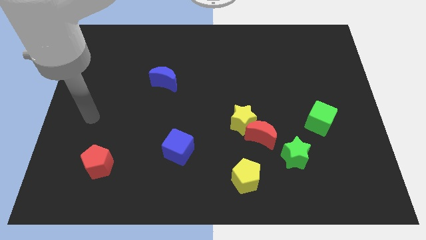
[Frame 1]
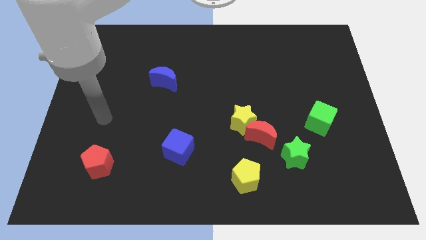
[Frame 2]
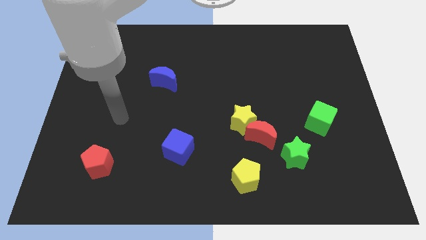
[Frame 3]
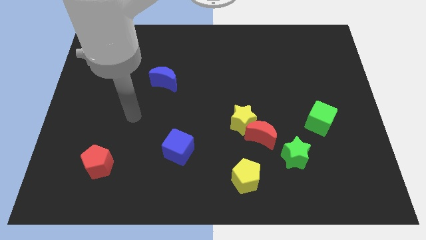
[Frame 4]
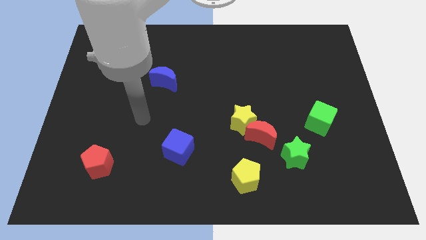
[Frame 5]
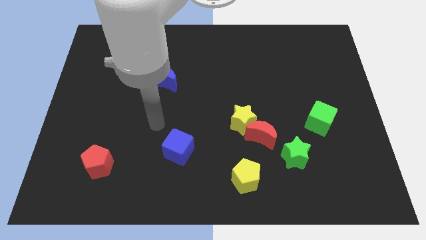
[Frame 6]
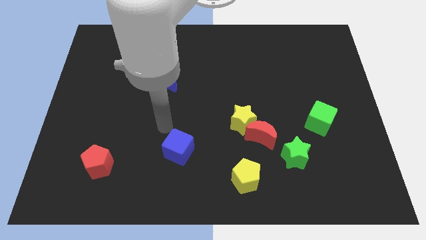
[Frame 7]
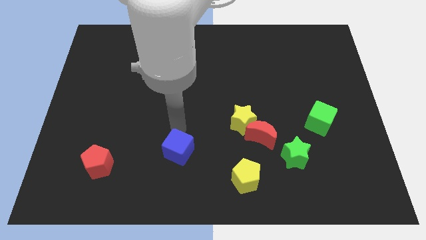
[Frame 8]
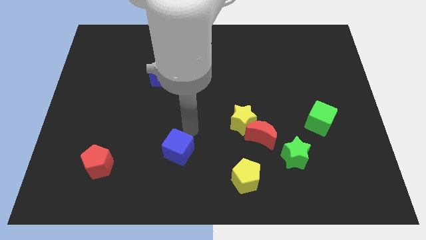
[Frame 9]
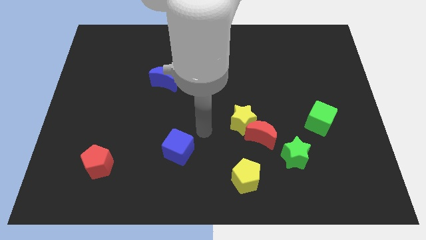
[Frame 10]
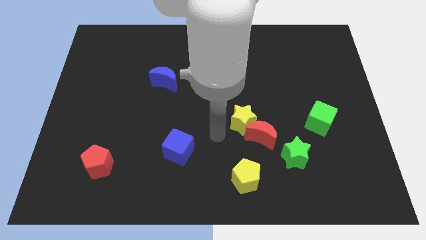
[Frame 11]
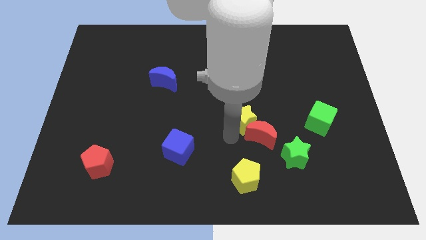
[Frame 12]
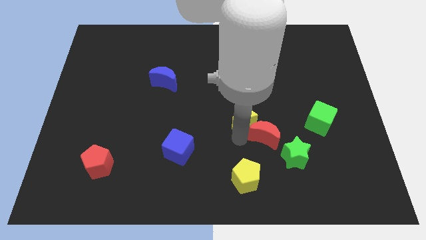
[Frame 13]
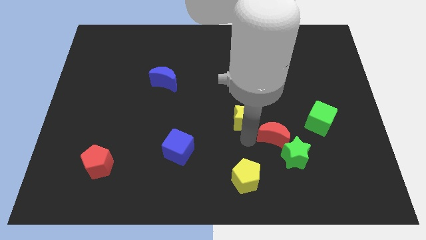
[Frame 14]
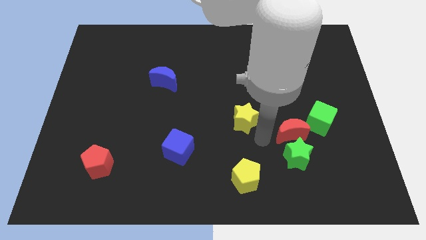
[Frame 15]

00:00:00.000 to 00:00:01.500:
pull the yellow star apart from the red moon

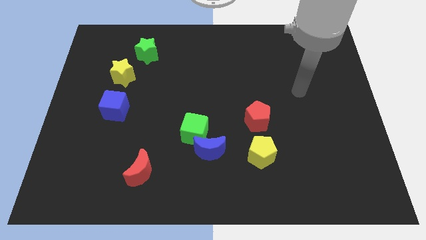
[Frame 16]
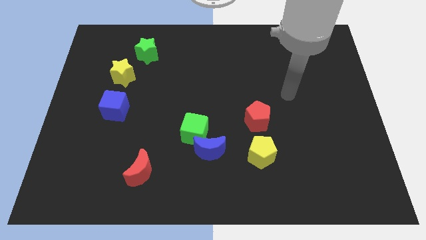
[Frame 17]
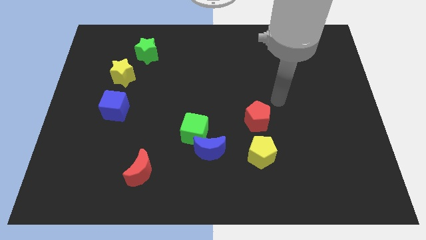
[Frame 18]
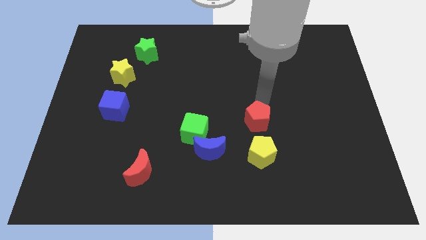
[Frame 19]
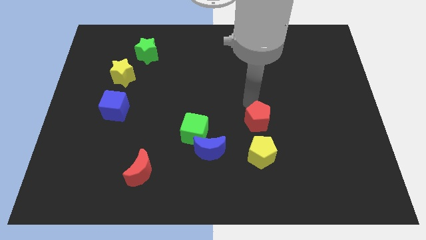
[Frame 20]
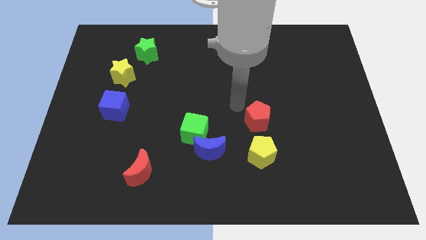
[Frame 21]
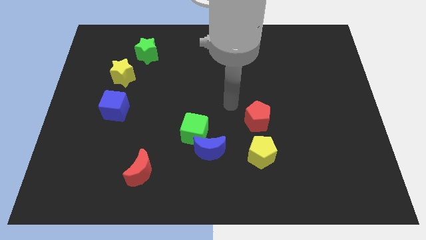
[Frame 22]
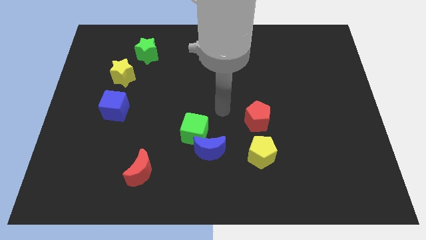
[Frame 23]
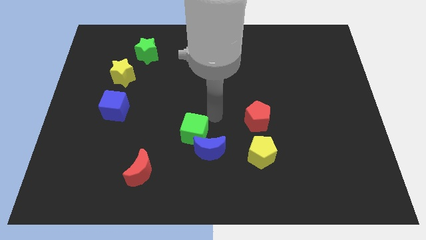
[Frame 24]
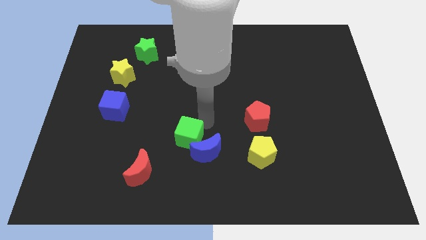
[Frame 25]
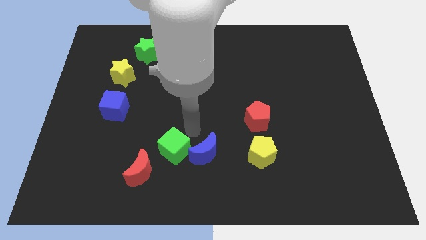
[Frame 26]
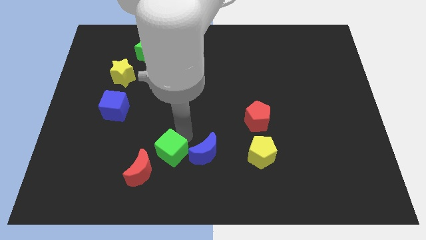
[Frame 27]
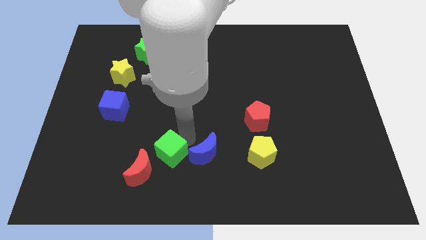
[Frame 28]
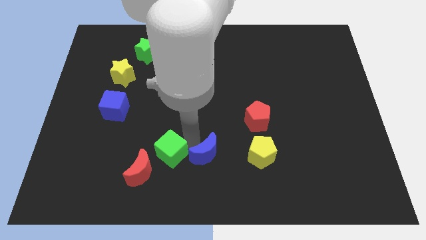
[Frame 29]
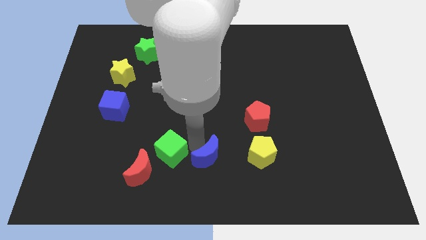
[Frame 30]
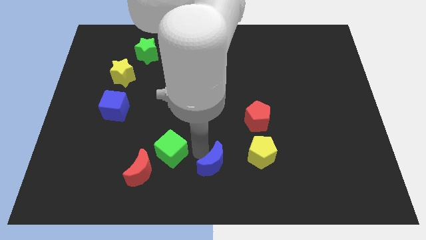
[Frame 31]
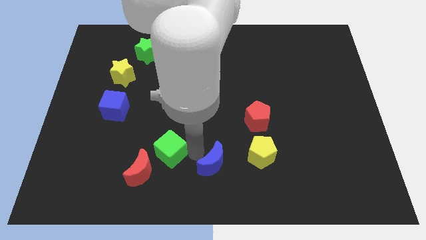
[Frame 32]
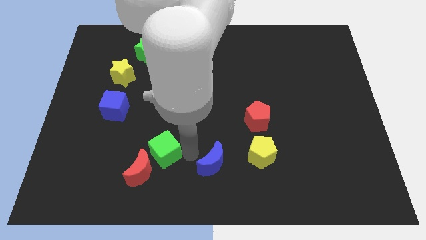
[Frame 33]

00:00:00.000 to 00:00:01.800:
pull the blue moon apart from the green cube

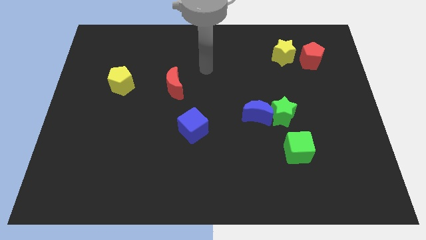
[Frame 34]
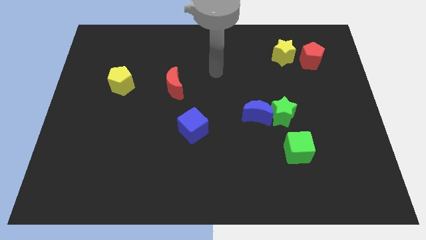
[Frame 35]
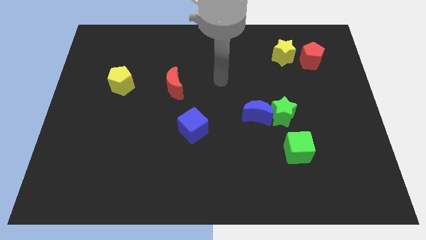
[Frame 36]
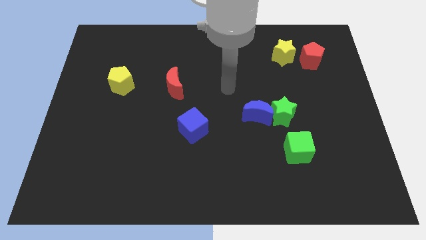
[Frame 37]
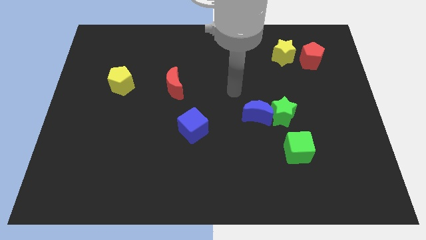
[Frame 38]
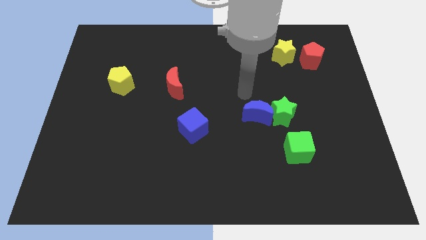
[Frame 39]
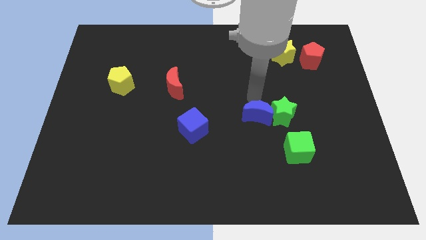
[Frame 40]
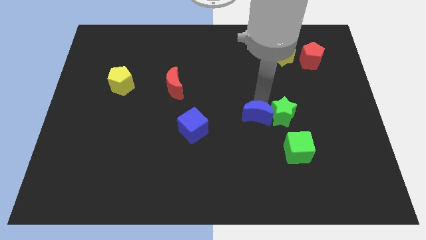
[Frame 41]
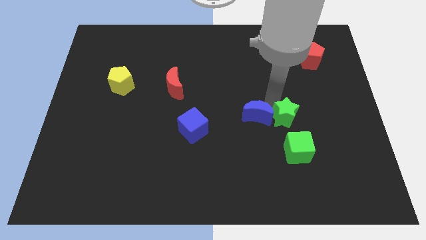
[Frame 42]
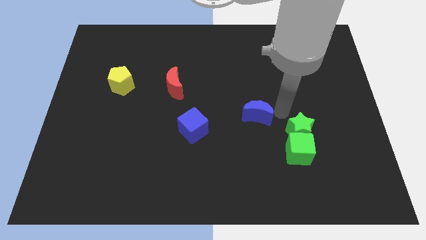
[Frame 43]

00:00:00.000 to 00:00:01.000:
move the blue moon away from the green star

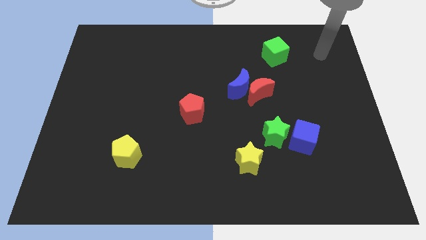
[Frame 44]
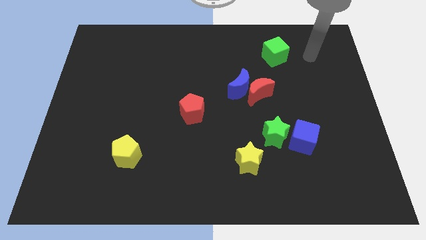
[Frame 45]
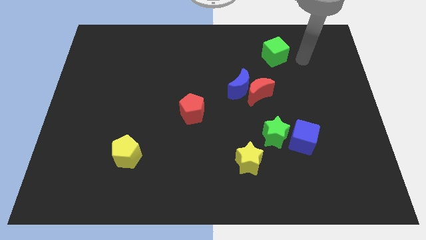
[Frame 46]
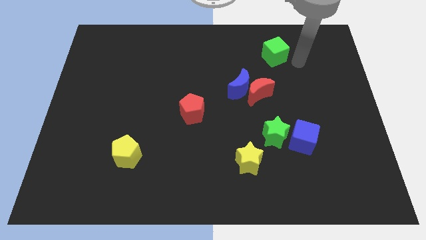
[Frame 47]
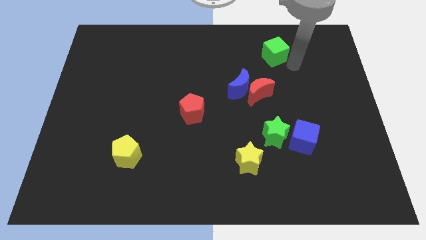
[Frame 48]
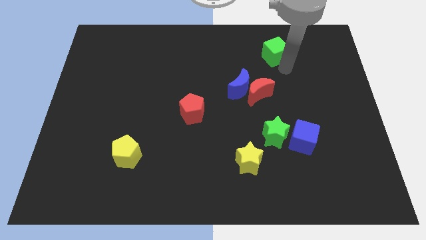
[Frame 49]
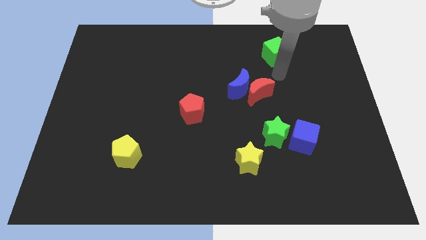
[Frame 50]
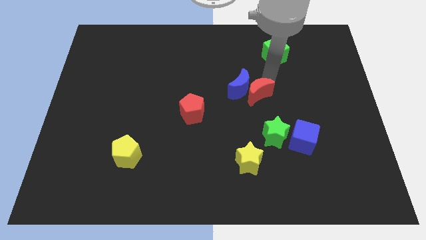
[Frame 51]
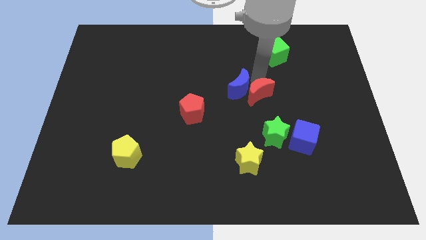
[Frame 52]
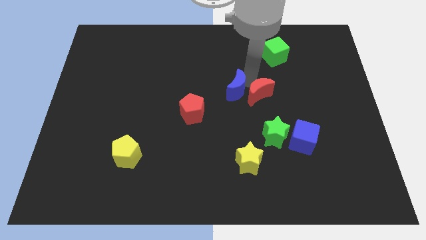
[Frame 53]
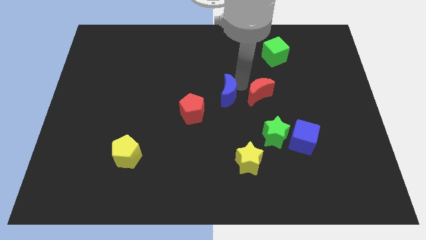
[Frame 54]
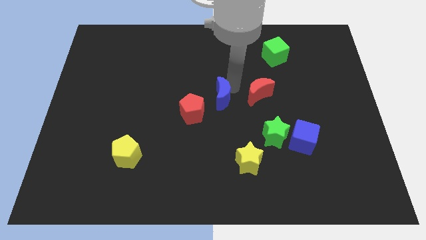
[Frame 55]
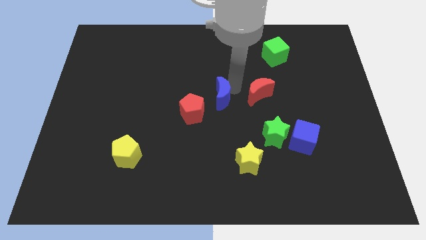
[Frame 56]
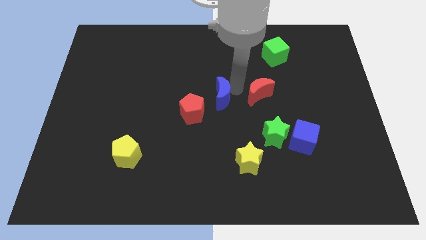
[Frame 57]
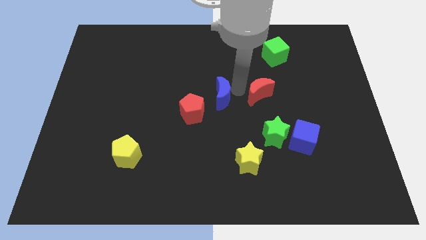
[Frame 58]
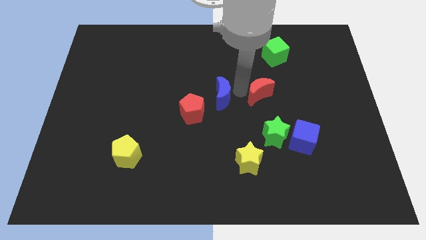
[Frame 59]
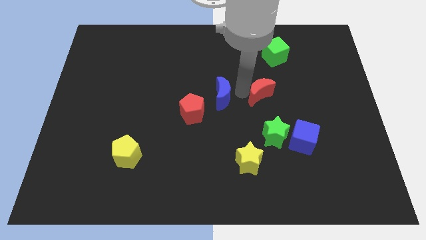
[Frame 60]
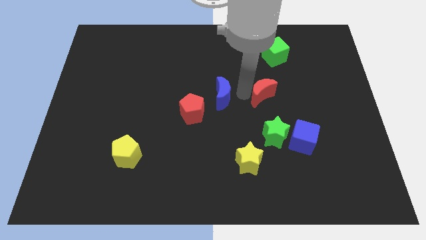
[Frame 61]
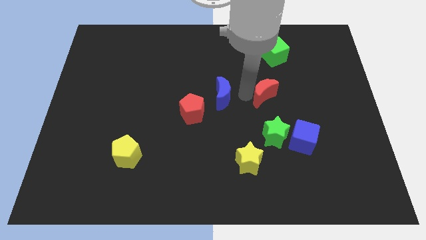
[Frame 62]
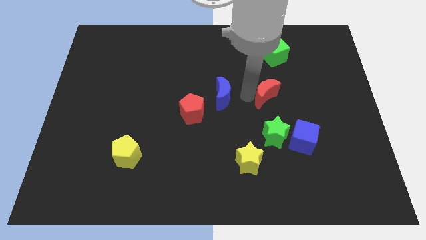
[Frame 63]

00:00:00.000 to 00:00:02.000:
pull the red moon apart from the blue moon

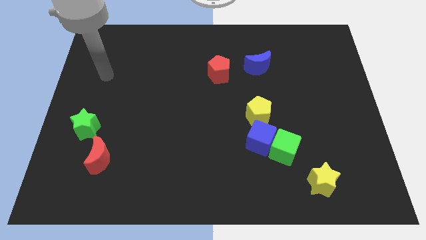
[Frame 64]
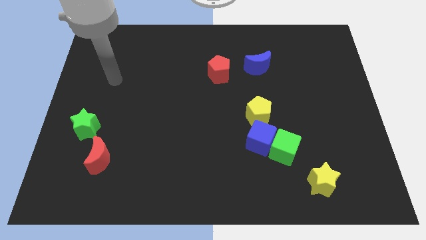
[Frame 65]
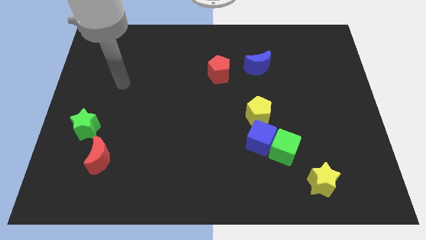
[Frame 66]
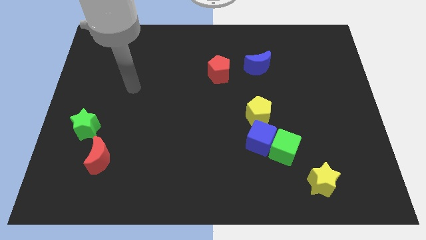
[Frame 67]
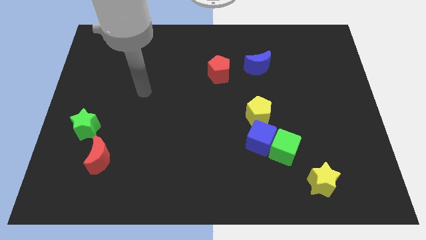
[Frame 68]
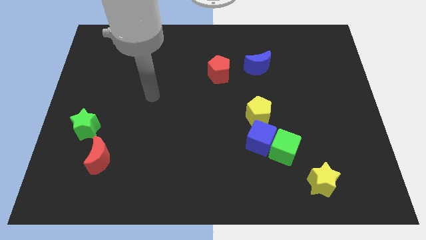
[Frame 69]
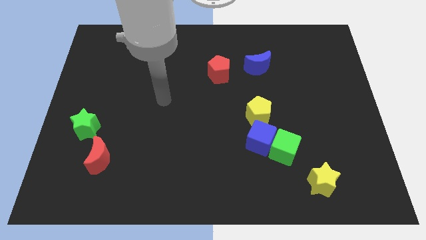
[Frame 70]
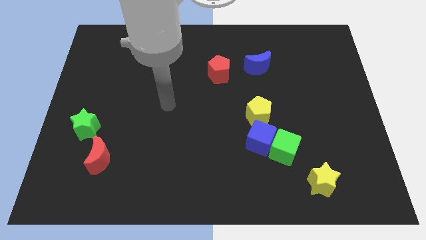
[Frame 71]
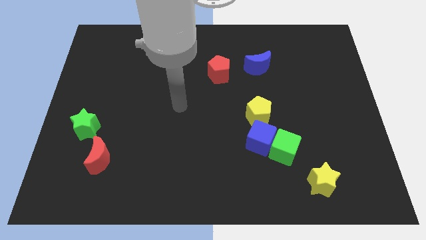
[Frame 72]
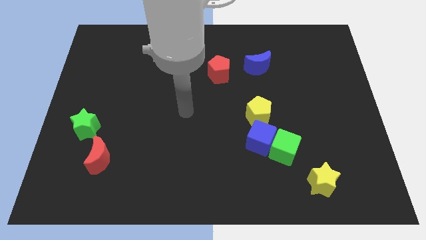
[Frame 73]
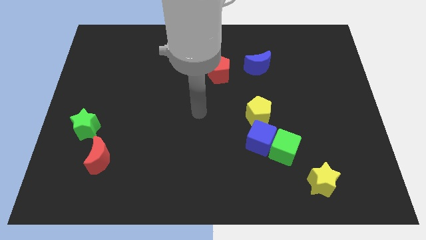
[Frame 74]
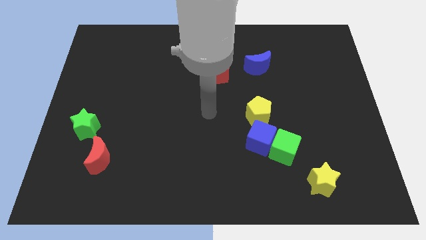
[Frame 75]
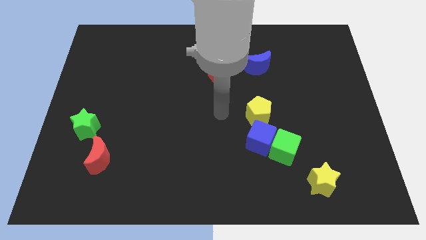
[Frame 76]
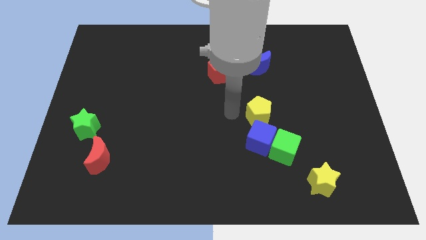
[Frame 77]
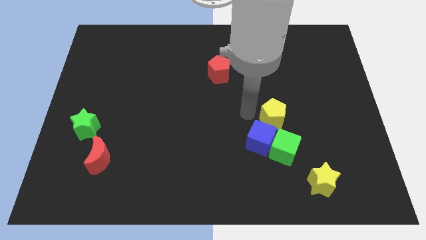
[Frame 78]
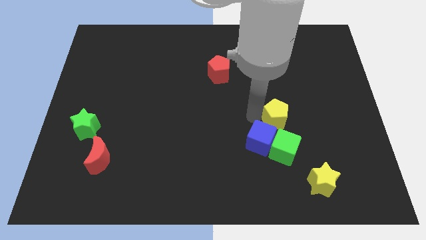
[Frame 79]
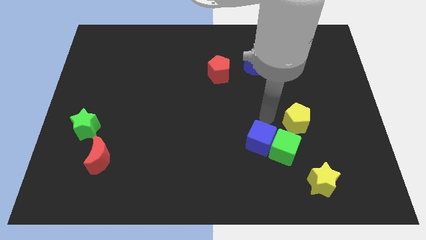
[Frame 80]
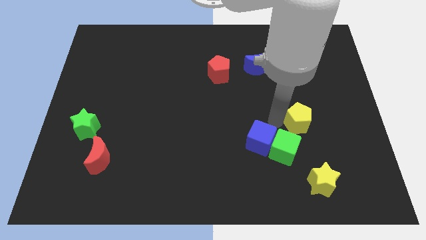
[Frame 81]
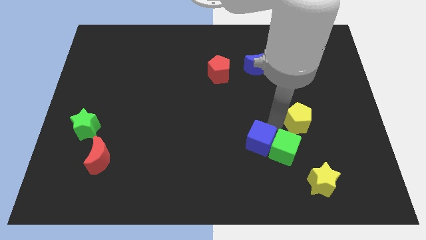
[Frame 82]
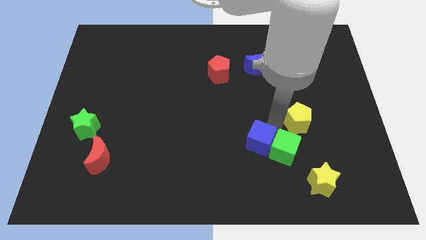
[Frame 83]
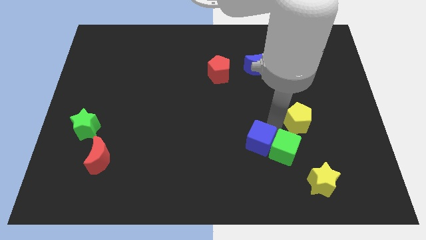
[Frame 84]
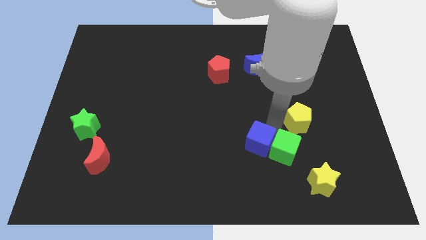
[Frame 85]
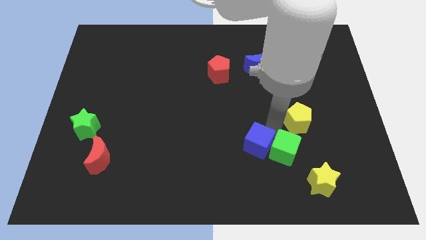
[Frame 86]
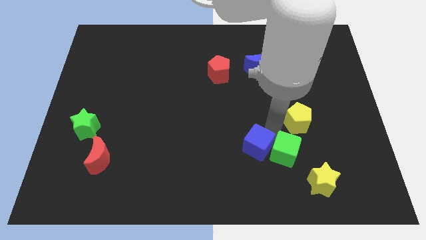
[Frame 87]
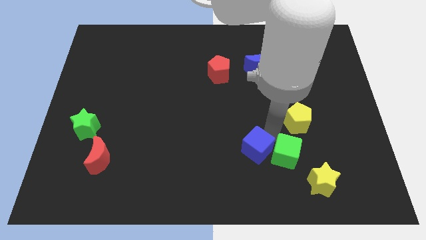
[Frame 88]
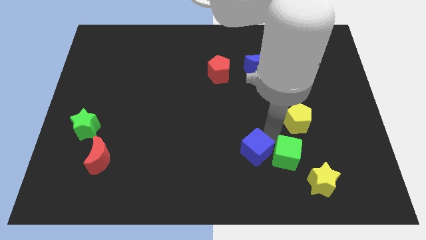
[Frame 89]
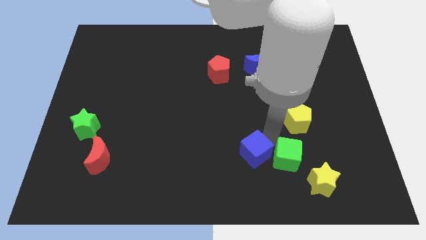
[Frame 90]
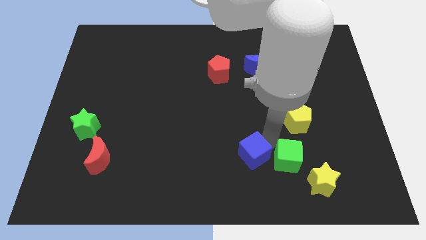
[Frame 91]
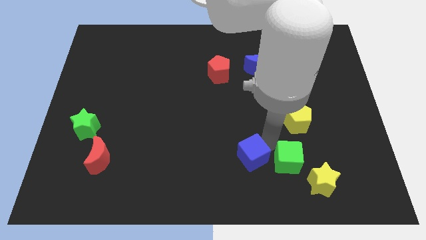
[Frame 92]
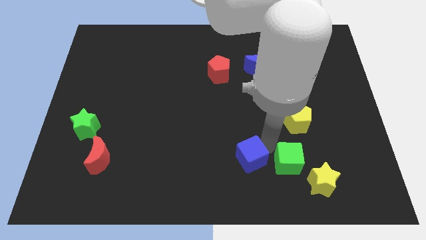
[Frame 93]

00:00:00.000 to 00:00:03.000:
move the blue cube away from the green cube and yellow pentagon
